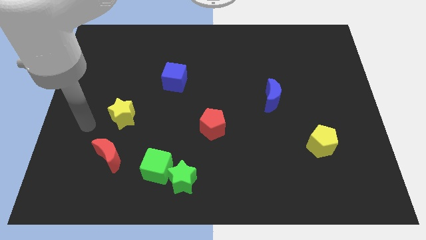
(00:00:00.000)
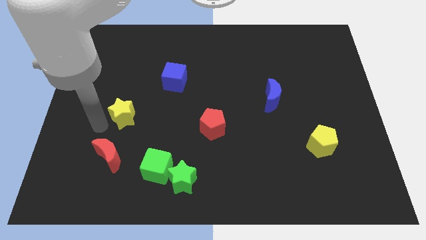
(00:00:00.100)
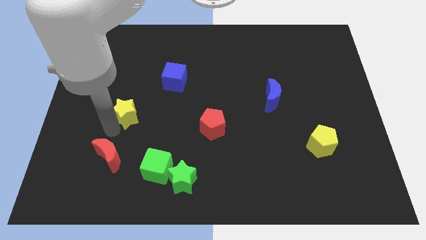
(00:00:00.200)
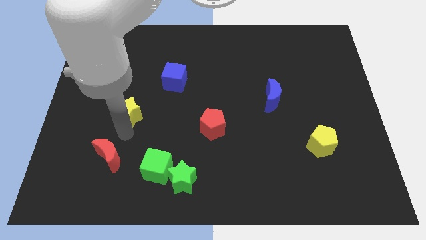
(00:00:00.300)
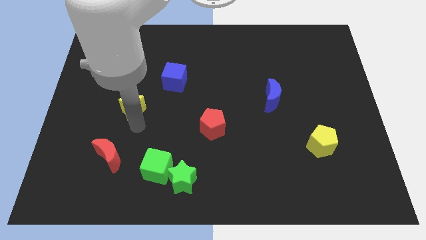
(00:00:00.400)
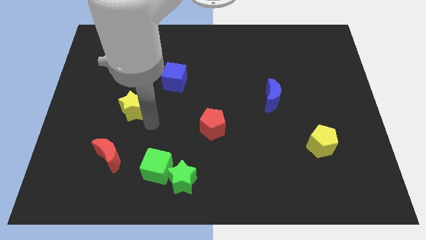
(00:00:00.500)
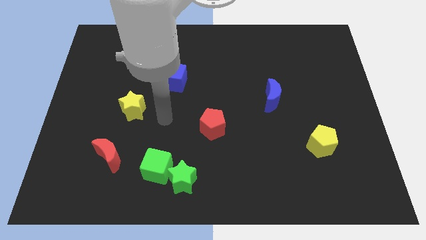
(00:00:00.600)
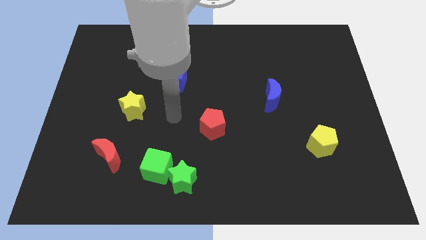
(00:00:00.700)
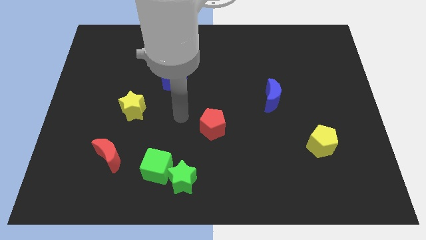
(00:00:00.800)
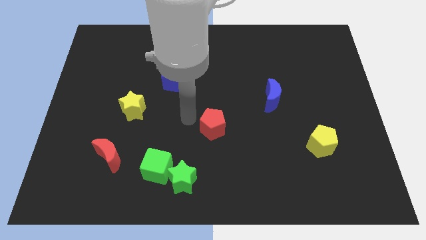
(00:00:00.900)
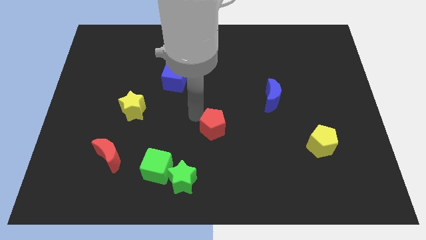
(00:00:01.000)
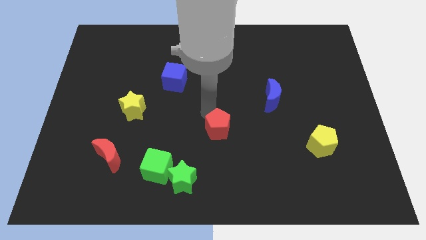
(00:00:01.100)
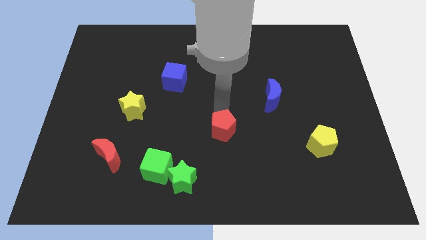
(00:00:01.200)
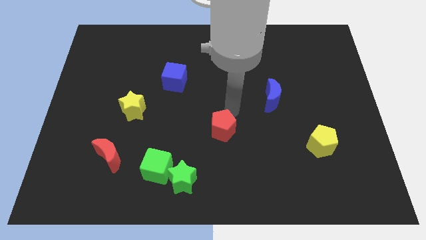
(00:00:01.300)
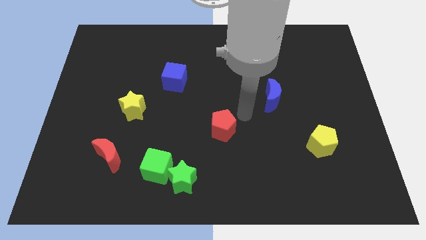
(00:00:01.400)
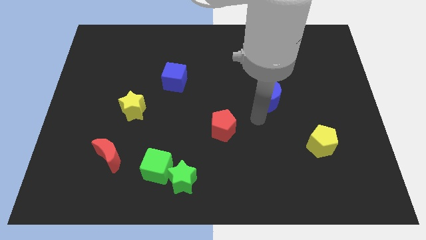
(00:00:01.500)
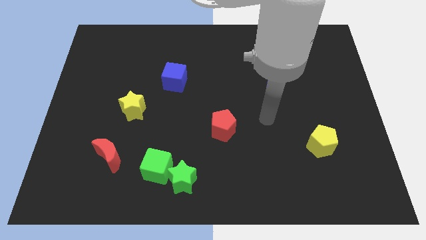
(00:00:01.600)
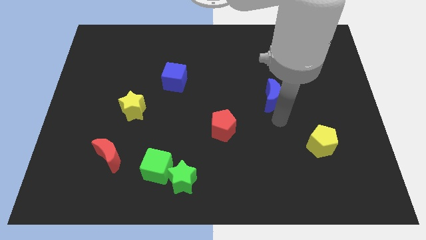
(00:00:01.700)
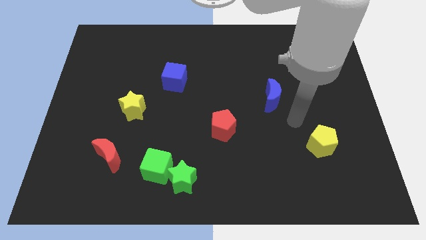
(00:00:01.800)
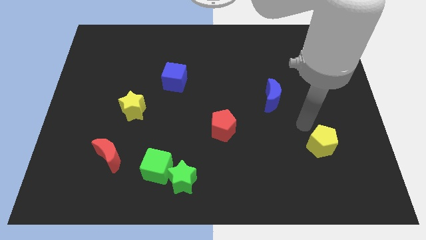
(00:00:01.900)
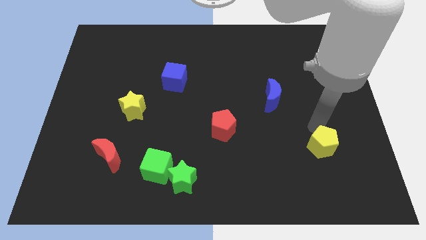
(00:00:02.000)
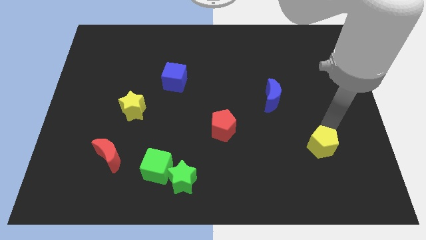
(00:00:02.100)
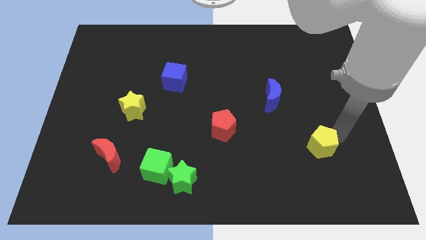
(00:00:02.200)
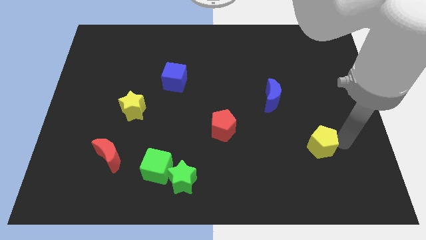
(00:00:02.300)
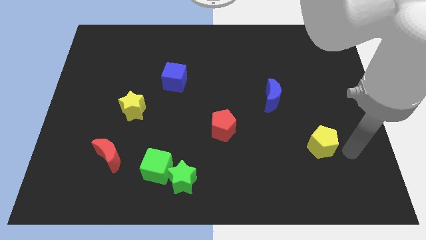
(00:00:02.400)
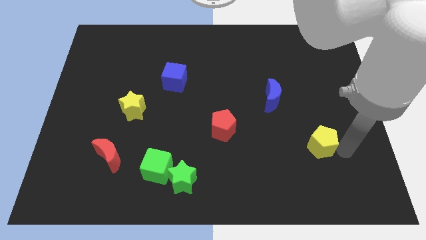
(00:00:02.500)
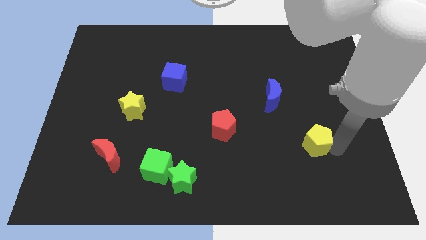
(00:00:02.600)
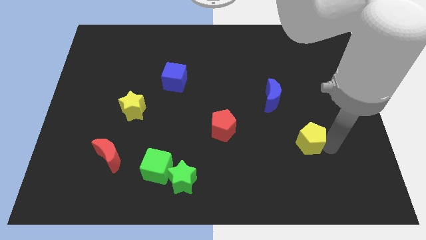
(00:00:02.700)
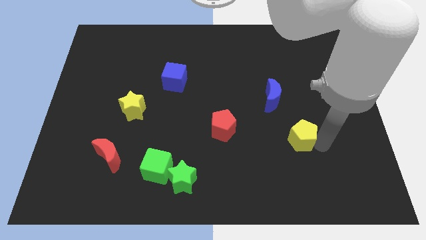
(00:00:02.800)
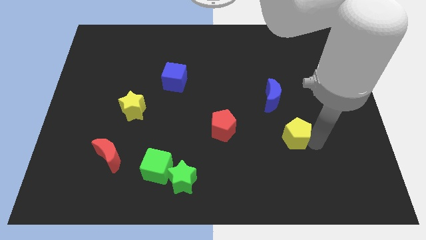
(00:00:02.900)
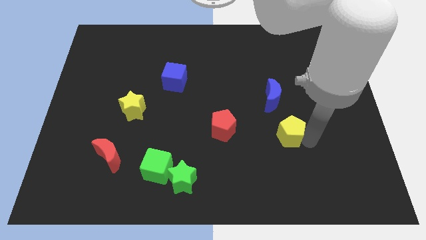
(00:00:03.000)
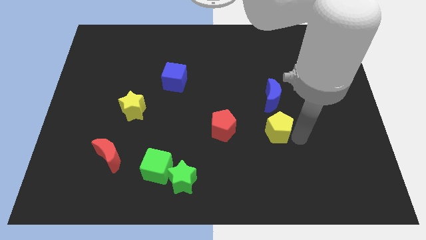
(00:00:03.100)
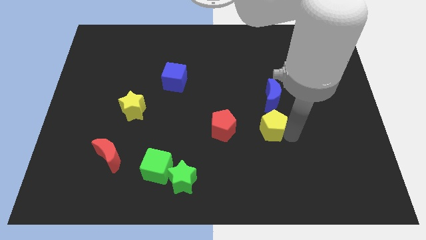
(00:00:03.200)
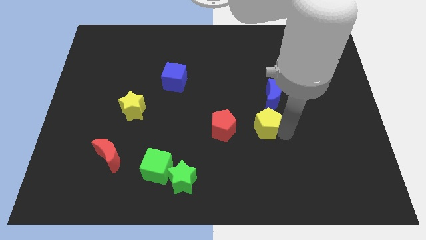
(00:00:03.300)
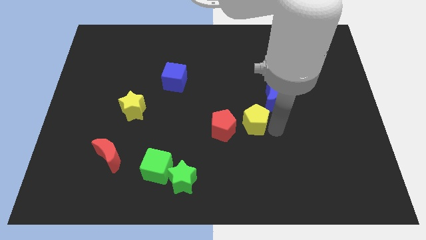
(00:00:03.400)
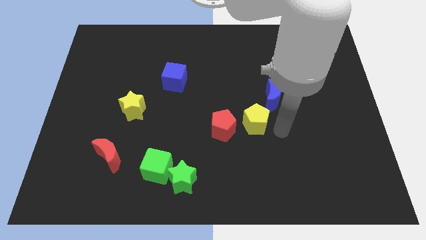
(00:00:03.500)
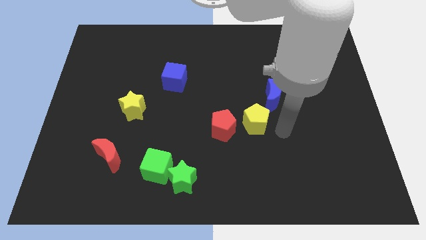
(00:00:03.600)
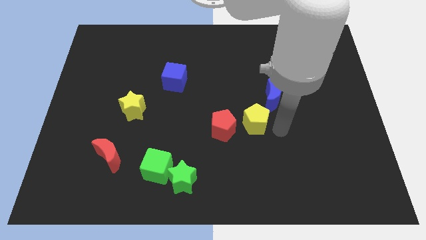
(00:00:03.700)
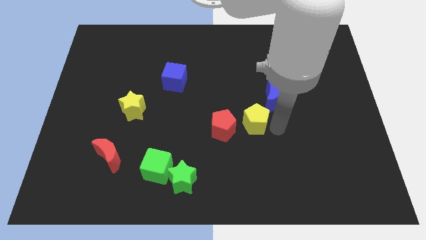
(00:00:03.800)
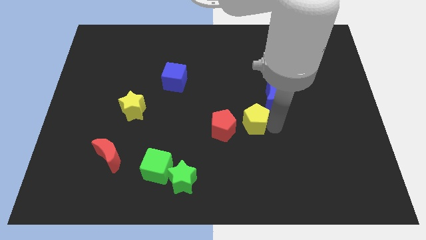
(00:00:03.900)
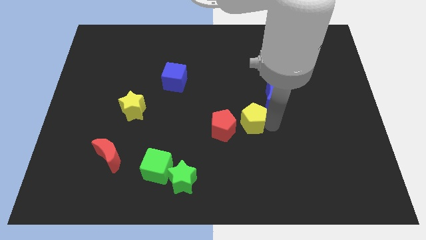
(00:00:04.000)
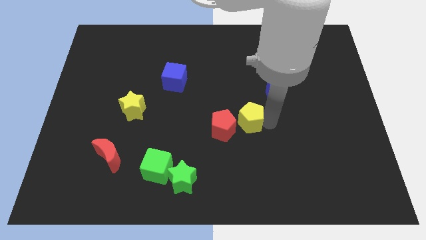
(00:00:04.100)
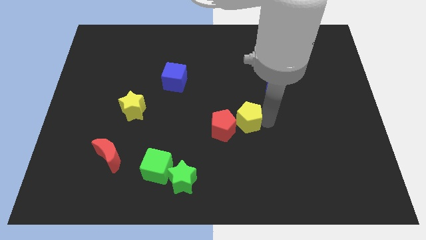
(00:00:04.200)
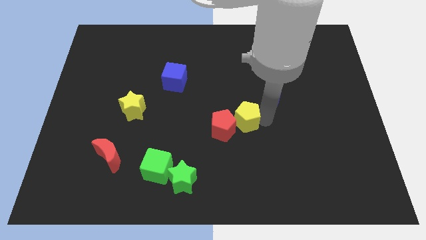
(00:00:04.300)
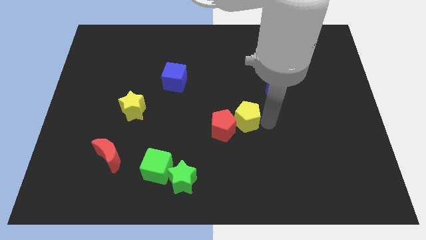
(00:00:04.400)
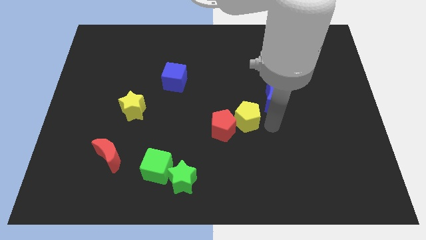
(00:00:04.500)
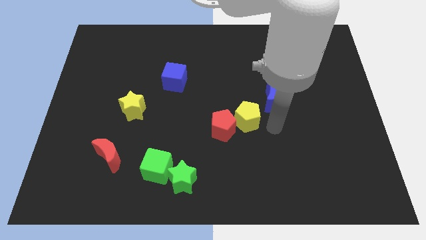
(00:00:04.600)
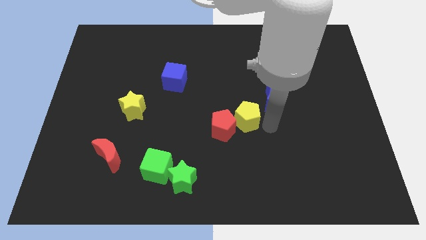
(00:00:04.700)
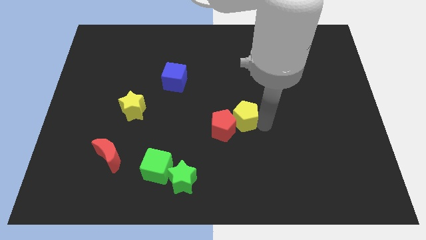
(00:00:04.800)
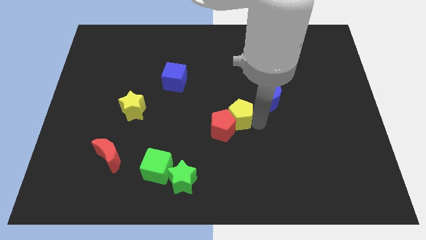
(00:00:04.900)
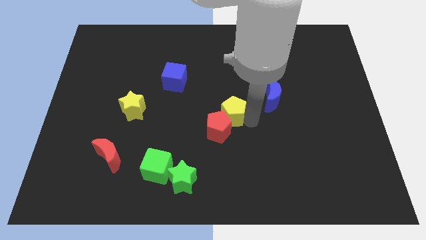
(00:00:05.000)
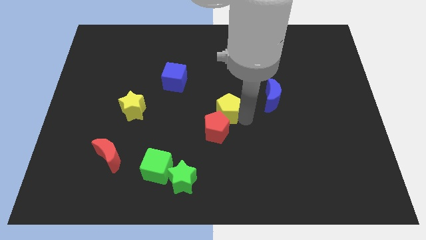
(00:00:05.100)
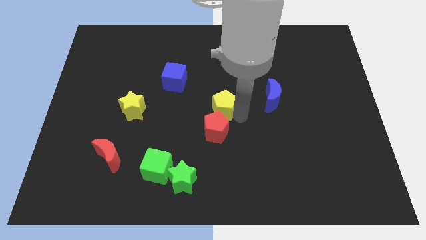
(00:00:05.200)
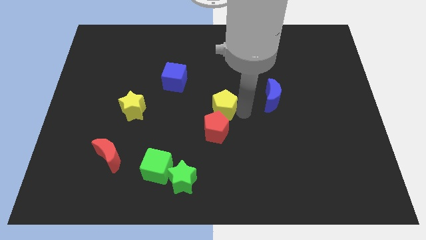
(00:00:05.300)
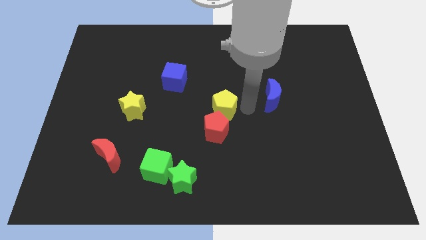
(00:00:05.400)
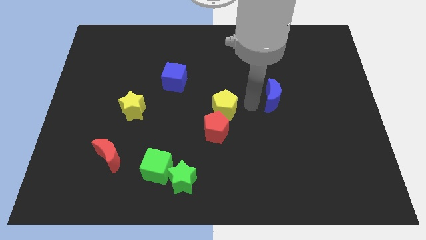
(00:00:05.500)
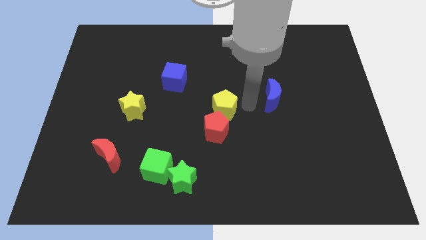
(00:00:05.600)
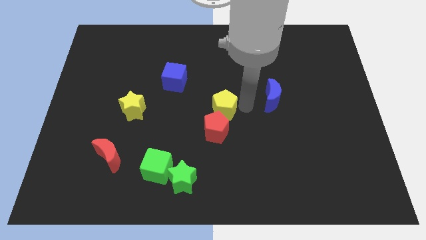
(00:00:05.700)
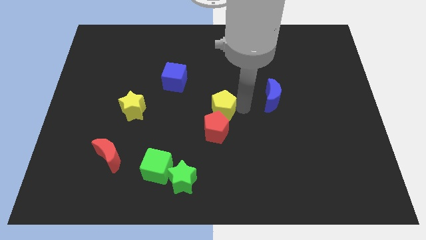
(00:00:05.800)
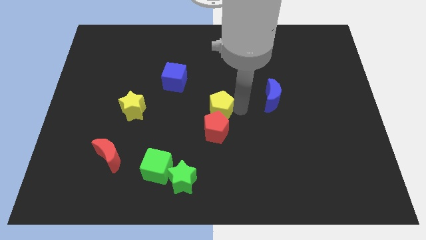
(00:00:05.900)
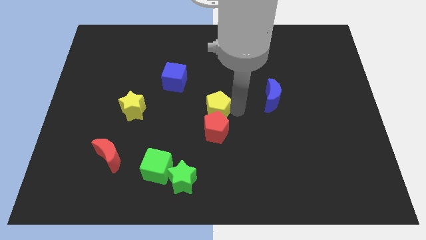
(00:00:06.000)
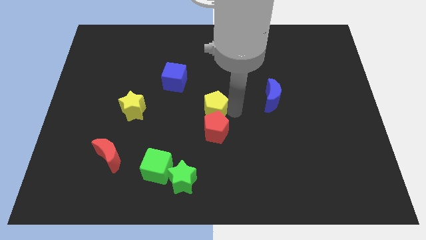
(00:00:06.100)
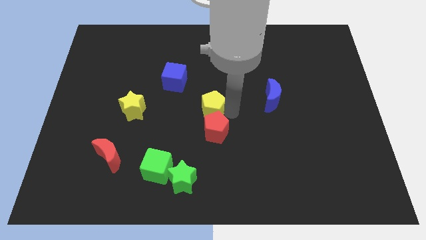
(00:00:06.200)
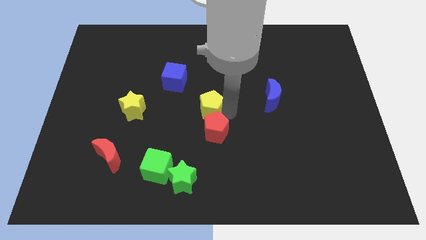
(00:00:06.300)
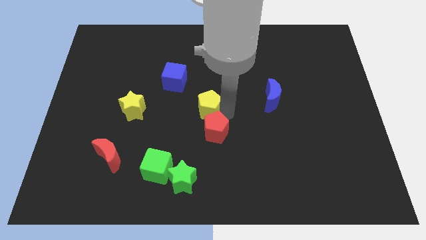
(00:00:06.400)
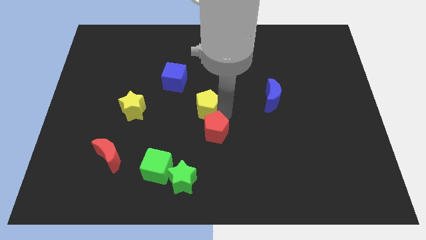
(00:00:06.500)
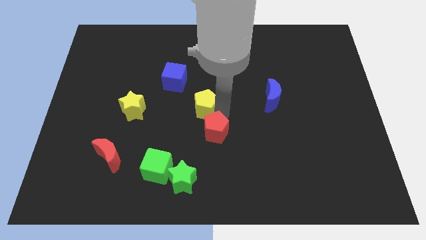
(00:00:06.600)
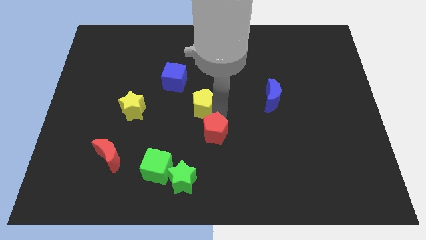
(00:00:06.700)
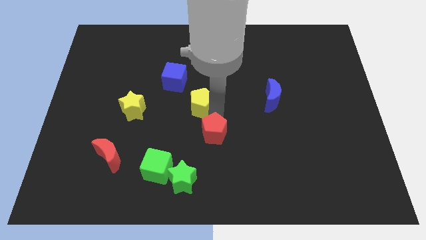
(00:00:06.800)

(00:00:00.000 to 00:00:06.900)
slide the yellow pentagon just right of the yellow star
